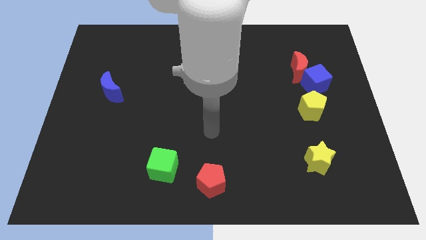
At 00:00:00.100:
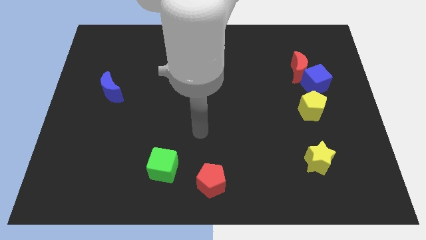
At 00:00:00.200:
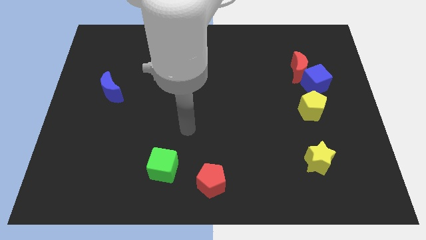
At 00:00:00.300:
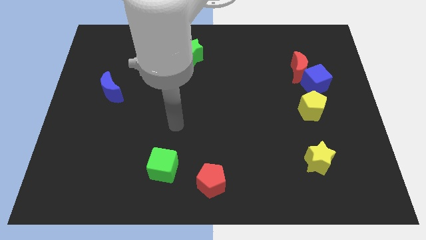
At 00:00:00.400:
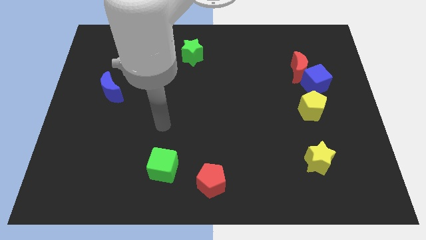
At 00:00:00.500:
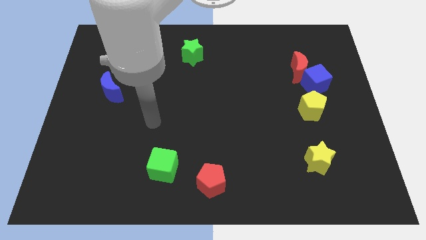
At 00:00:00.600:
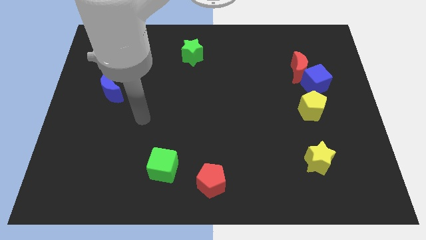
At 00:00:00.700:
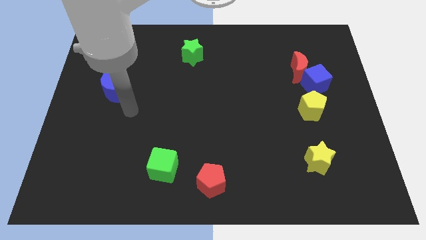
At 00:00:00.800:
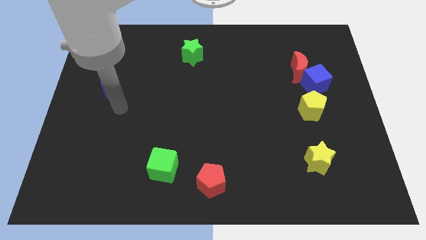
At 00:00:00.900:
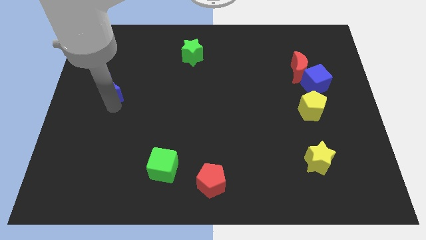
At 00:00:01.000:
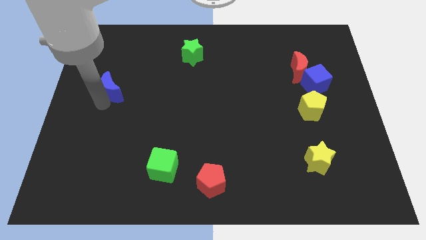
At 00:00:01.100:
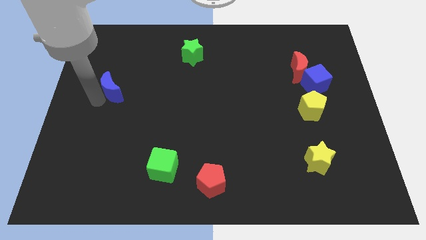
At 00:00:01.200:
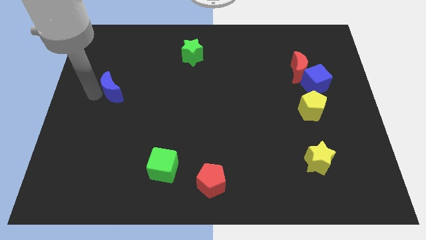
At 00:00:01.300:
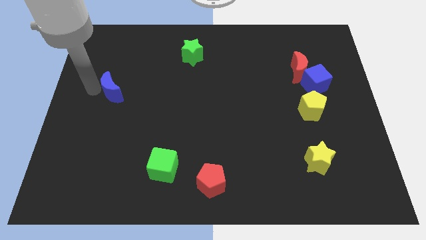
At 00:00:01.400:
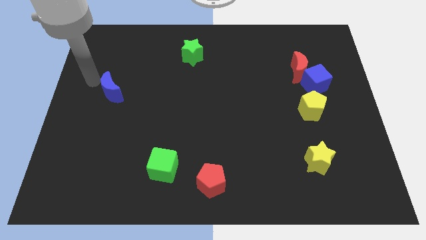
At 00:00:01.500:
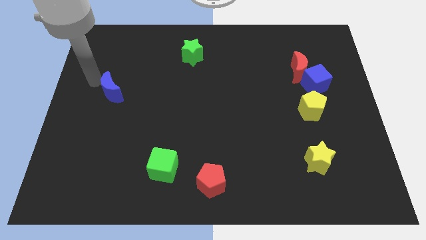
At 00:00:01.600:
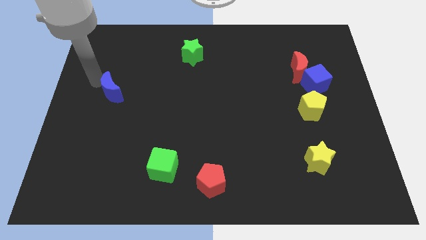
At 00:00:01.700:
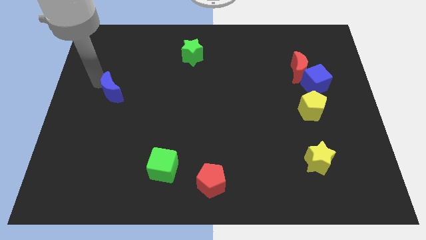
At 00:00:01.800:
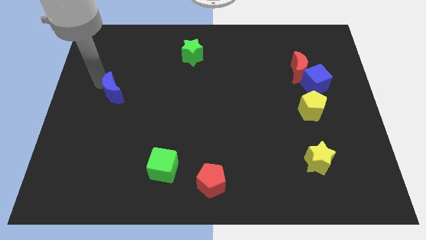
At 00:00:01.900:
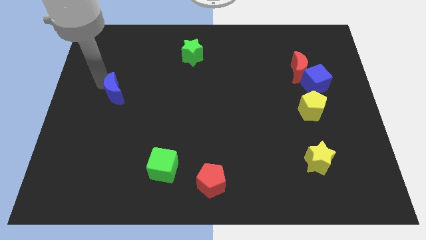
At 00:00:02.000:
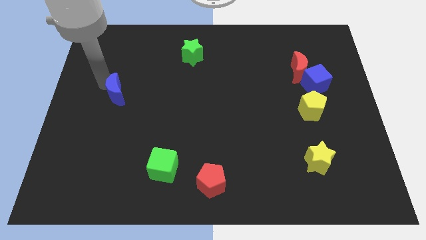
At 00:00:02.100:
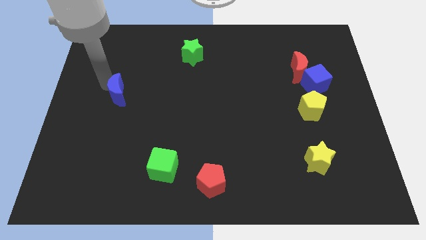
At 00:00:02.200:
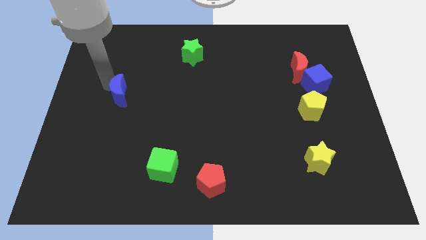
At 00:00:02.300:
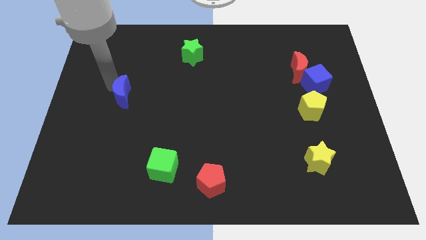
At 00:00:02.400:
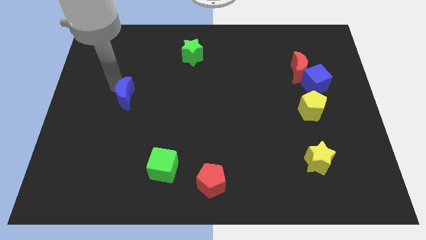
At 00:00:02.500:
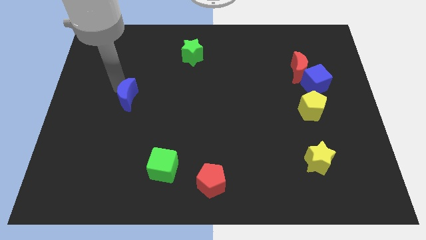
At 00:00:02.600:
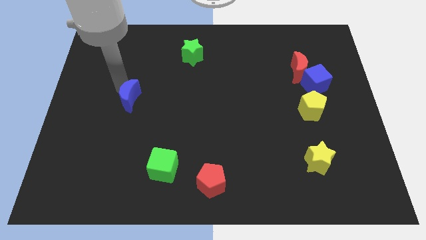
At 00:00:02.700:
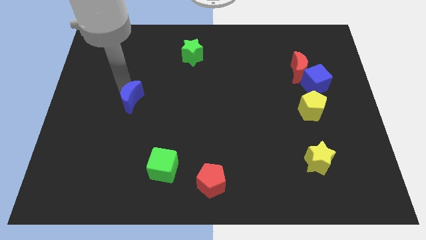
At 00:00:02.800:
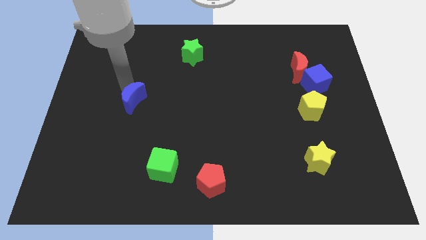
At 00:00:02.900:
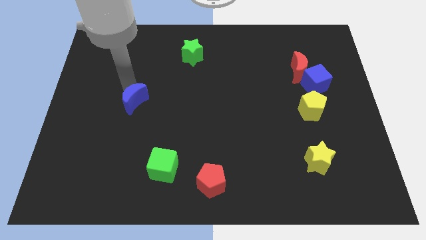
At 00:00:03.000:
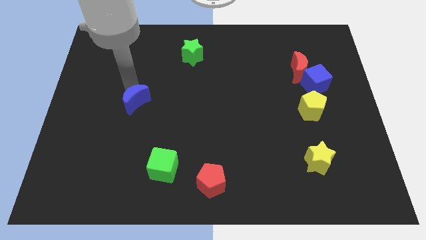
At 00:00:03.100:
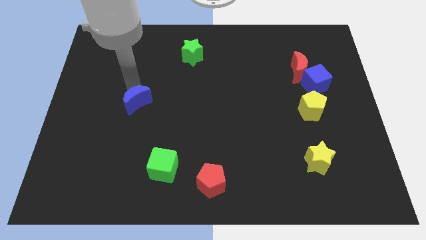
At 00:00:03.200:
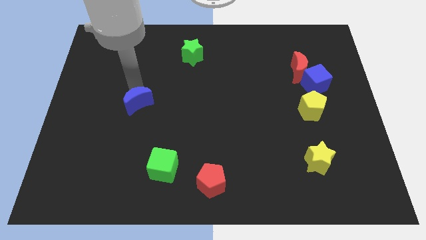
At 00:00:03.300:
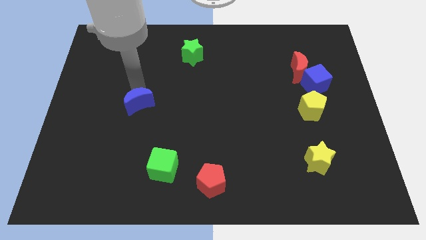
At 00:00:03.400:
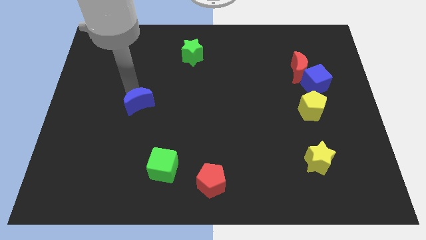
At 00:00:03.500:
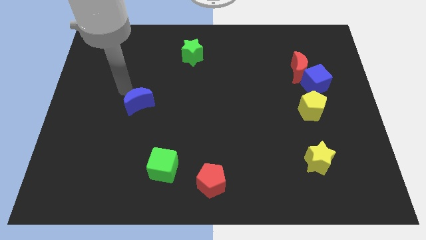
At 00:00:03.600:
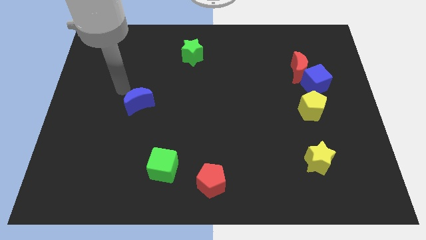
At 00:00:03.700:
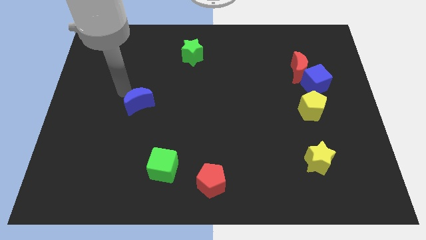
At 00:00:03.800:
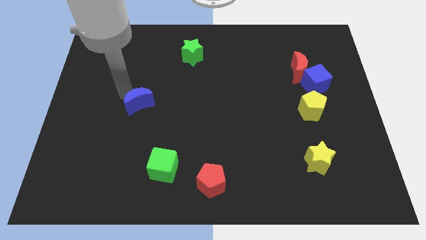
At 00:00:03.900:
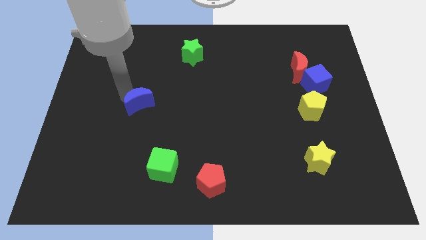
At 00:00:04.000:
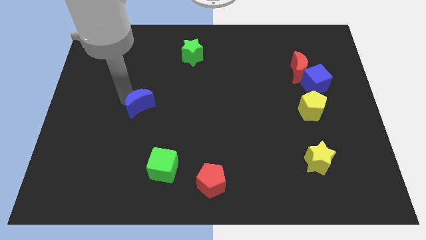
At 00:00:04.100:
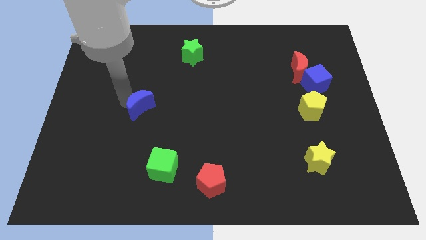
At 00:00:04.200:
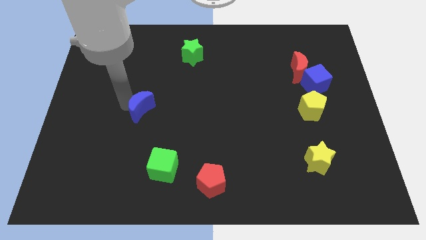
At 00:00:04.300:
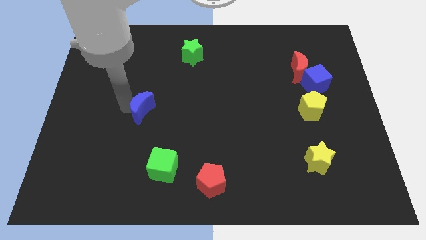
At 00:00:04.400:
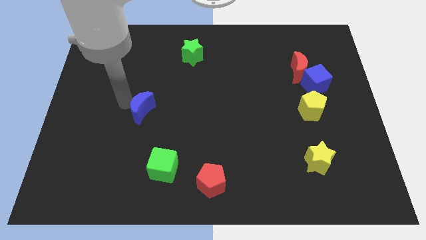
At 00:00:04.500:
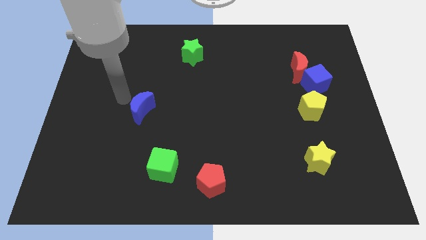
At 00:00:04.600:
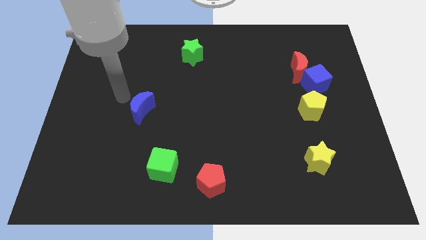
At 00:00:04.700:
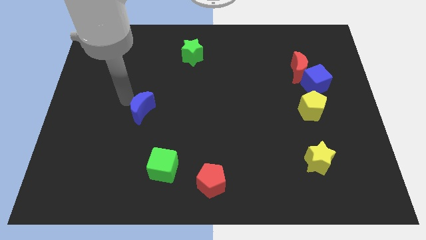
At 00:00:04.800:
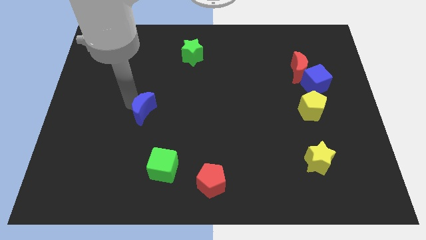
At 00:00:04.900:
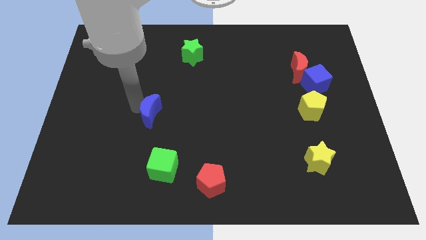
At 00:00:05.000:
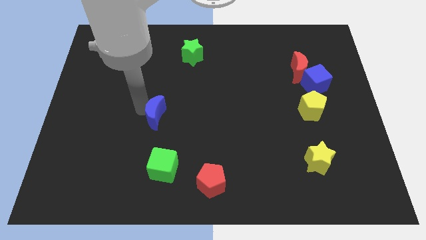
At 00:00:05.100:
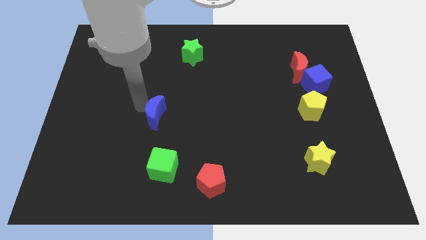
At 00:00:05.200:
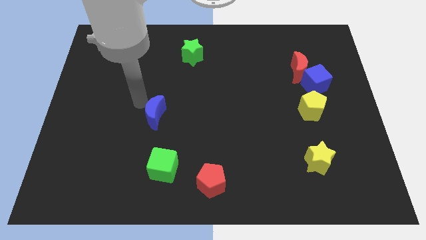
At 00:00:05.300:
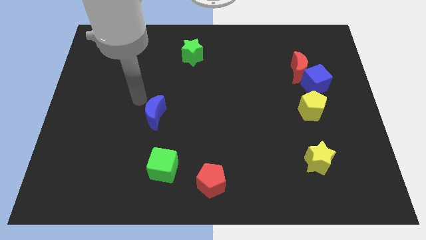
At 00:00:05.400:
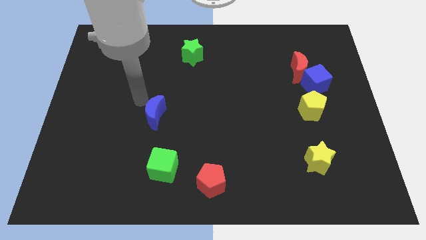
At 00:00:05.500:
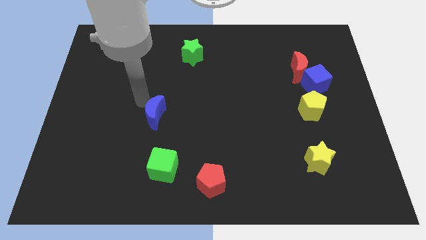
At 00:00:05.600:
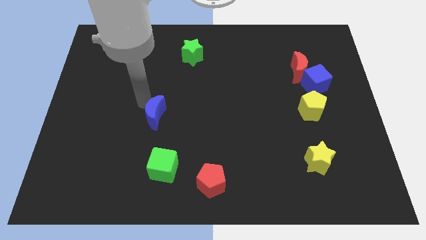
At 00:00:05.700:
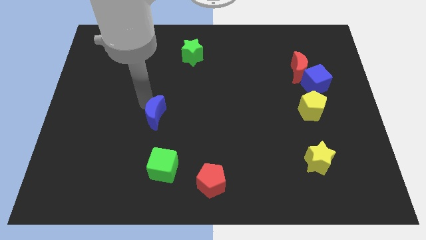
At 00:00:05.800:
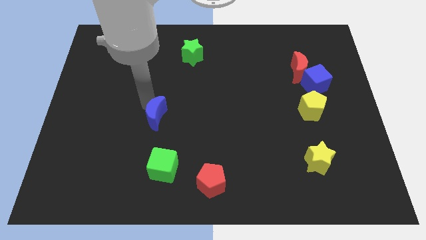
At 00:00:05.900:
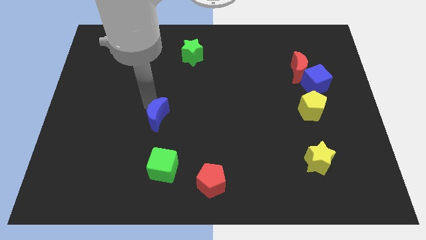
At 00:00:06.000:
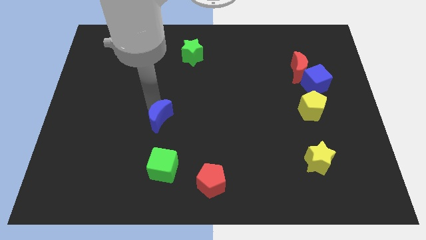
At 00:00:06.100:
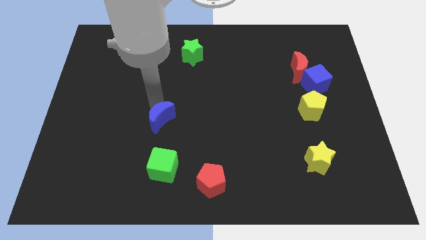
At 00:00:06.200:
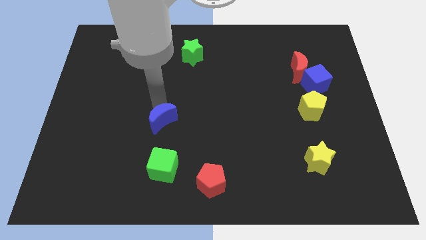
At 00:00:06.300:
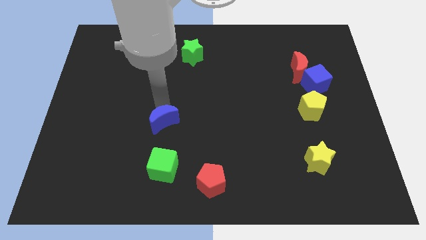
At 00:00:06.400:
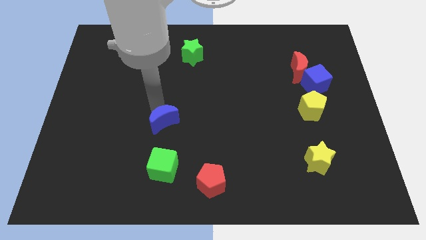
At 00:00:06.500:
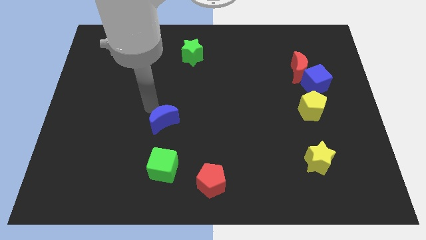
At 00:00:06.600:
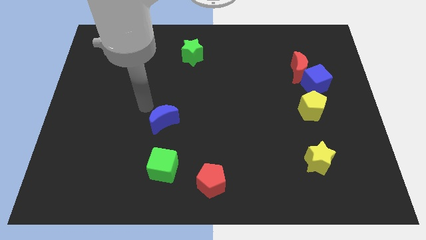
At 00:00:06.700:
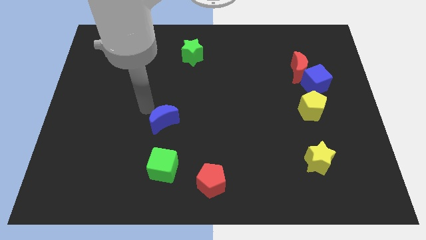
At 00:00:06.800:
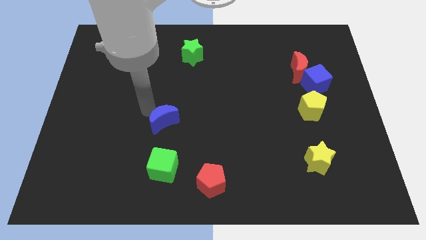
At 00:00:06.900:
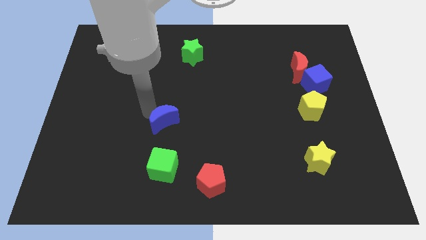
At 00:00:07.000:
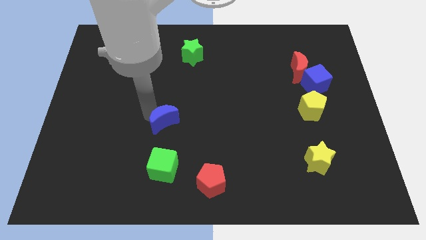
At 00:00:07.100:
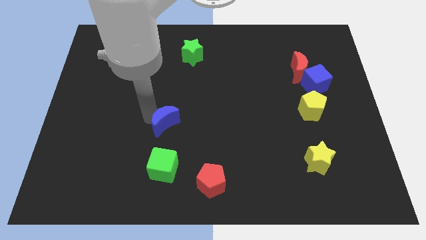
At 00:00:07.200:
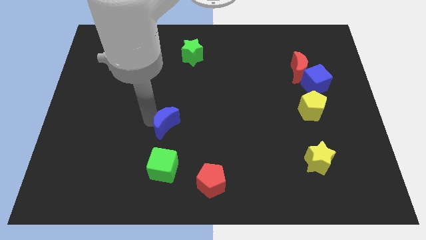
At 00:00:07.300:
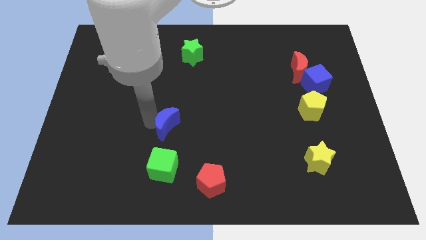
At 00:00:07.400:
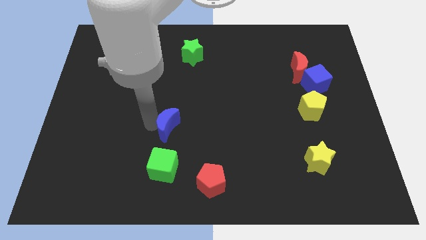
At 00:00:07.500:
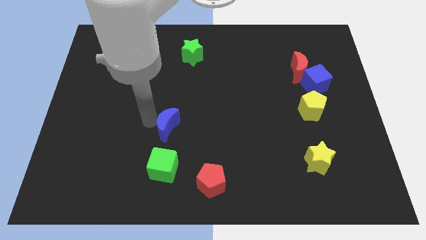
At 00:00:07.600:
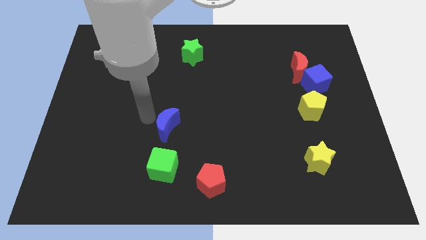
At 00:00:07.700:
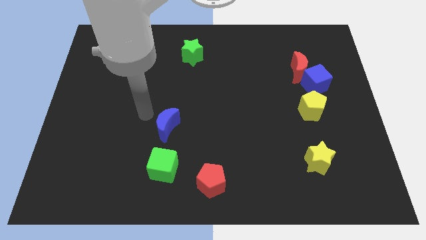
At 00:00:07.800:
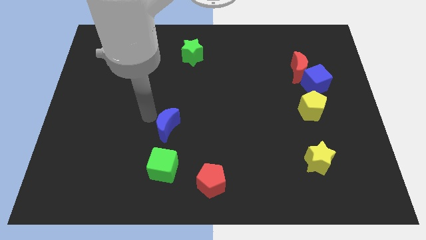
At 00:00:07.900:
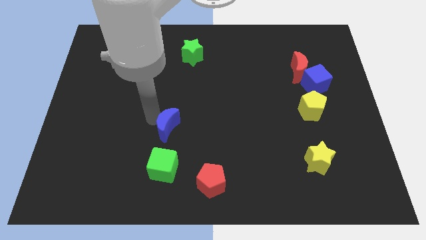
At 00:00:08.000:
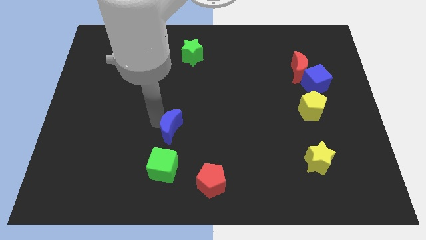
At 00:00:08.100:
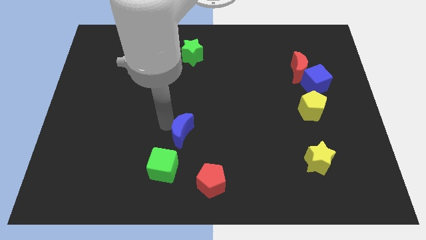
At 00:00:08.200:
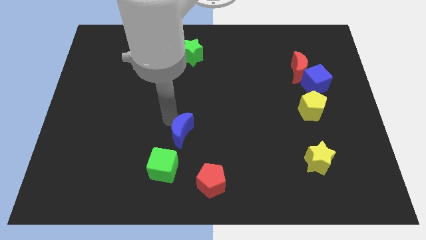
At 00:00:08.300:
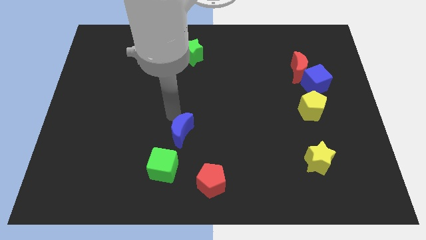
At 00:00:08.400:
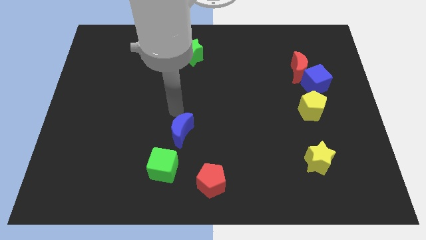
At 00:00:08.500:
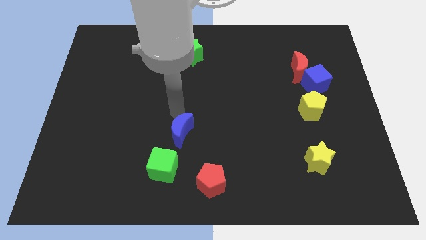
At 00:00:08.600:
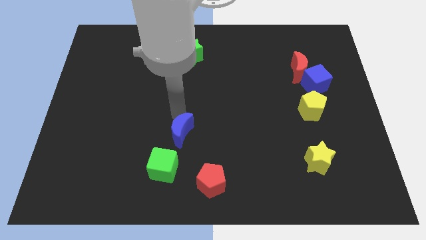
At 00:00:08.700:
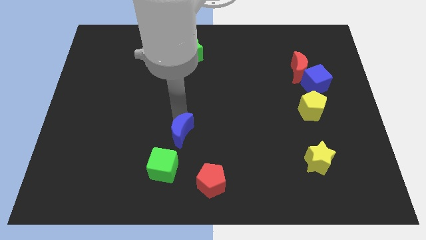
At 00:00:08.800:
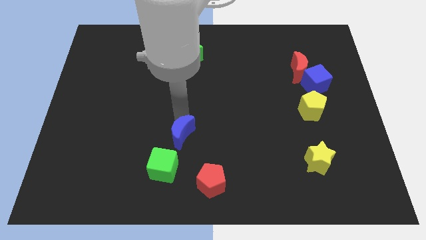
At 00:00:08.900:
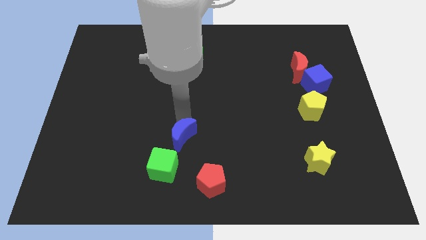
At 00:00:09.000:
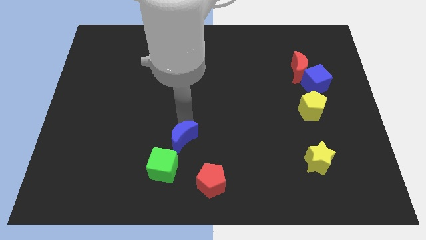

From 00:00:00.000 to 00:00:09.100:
push the blue moon to the top left of the red pentagon
